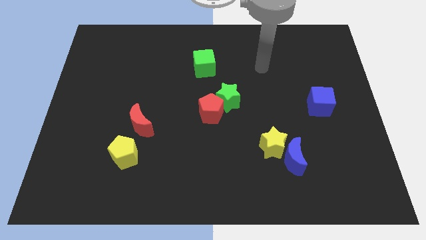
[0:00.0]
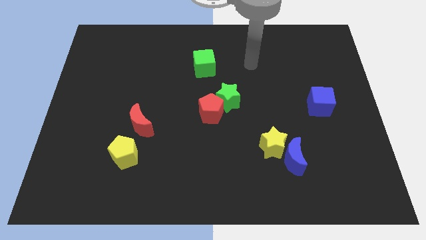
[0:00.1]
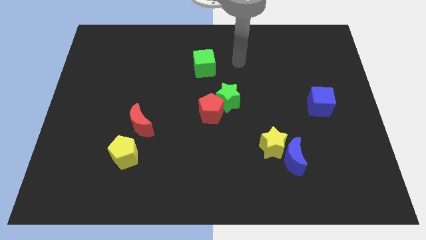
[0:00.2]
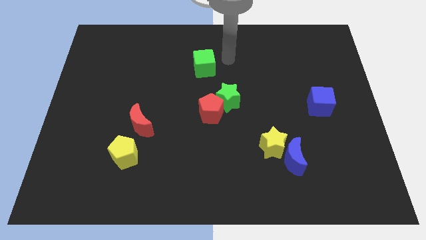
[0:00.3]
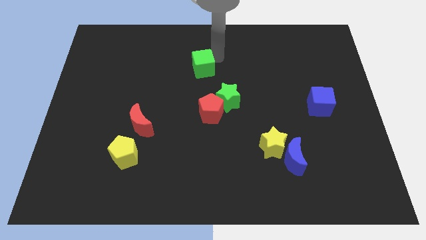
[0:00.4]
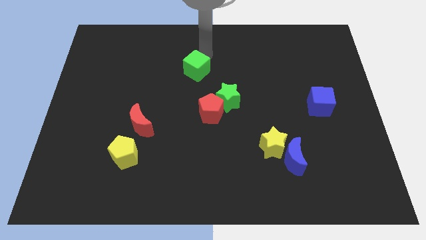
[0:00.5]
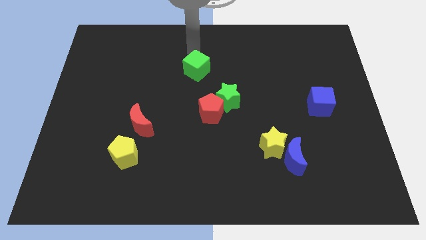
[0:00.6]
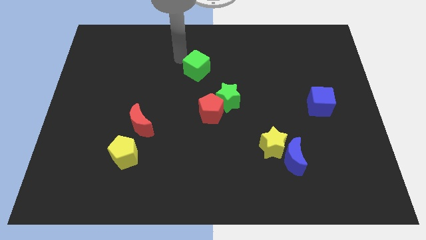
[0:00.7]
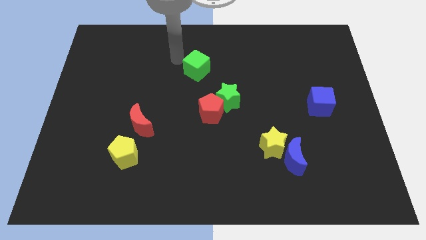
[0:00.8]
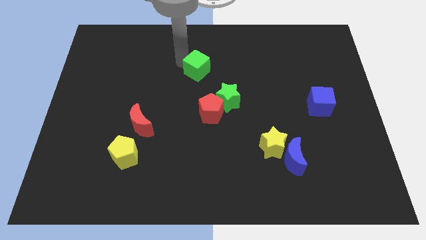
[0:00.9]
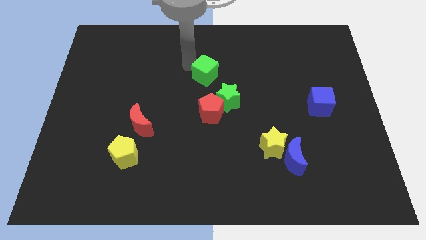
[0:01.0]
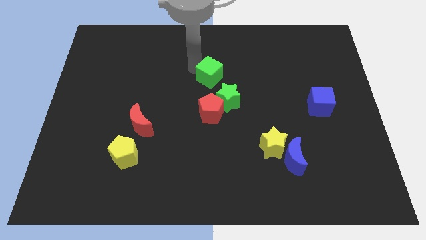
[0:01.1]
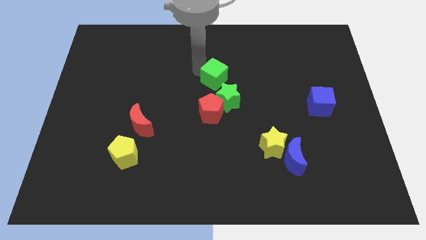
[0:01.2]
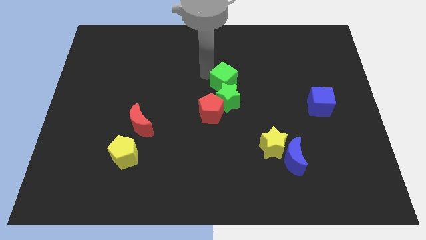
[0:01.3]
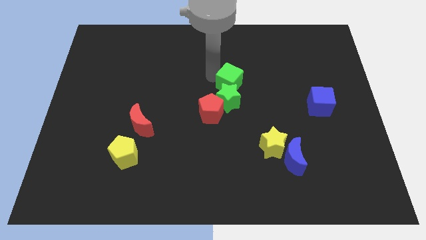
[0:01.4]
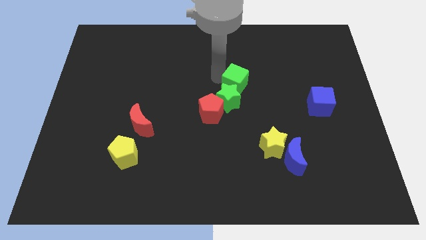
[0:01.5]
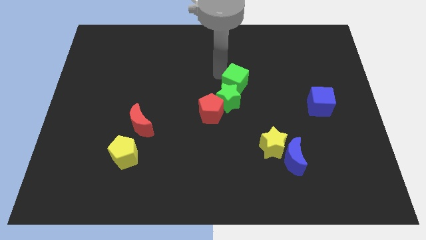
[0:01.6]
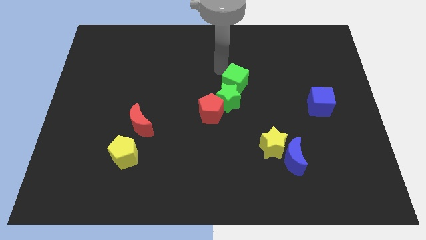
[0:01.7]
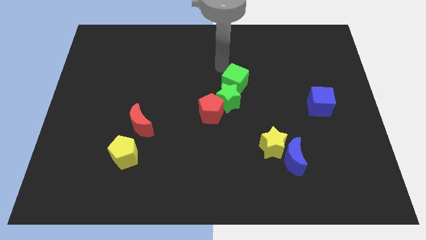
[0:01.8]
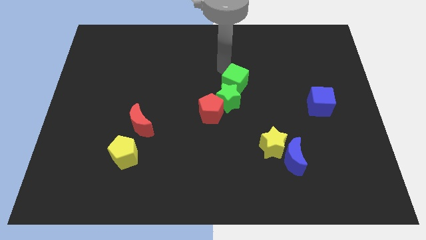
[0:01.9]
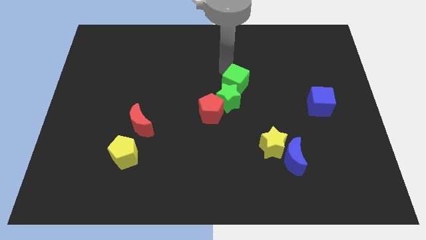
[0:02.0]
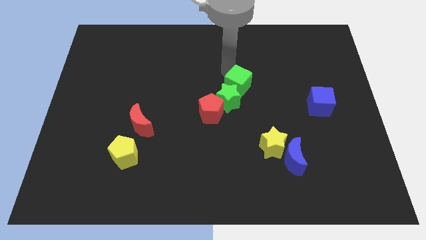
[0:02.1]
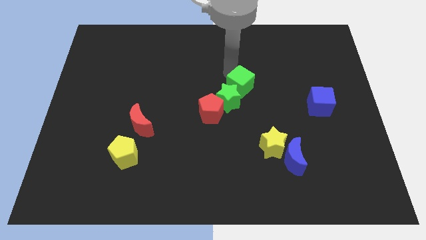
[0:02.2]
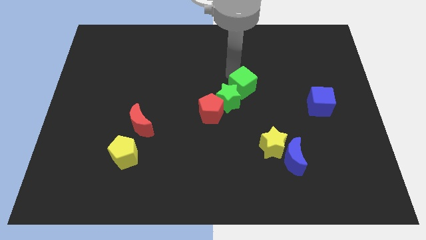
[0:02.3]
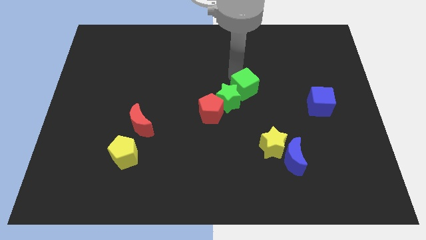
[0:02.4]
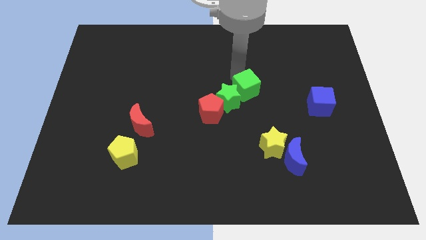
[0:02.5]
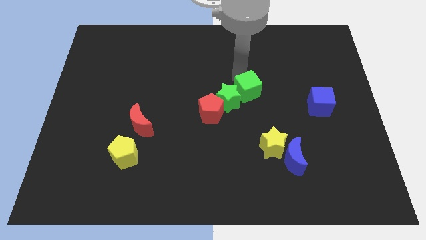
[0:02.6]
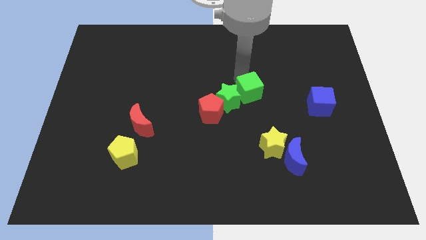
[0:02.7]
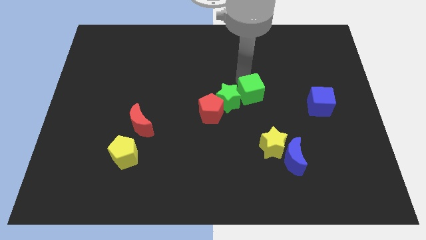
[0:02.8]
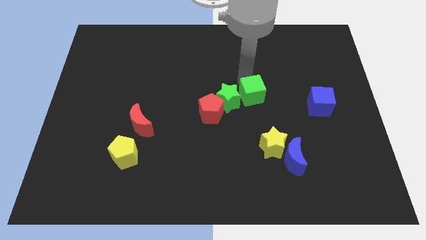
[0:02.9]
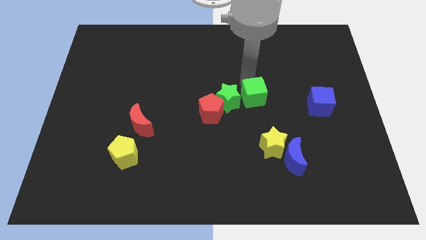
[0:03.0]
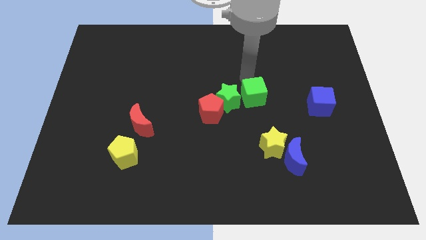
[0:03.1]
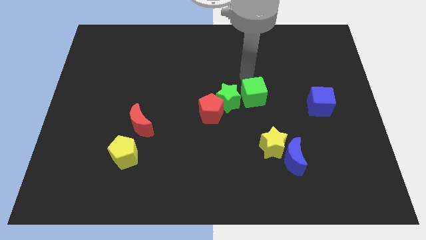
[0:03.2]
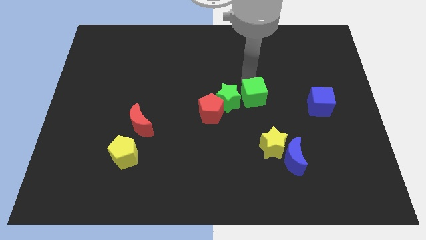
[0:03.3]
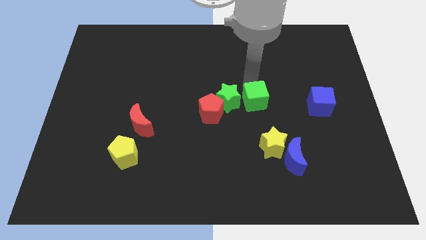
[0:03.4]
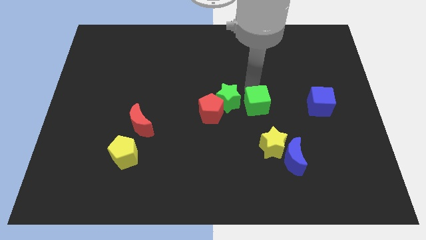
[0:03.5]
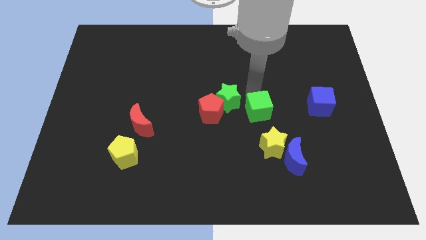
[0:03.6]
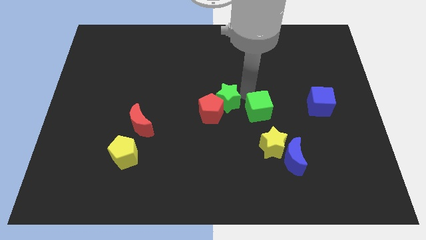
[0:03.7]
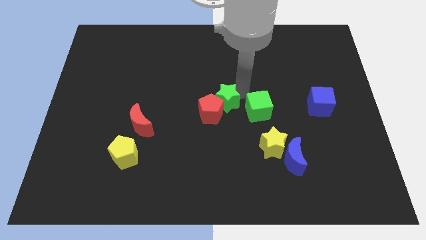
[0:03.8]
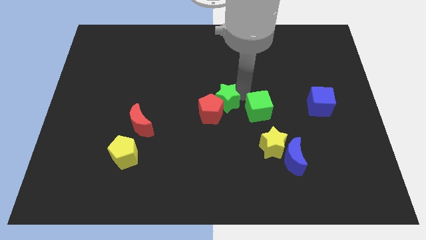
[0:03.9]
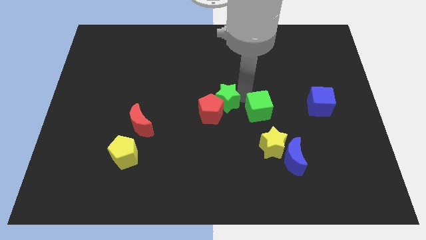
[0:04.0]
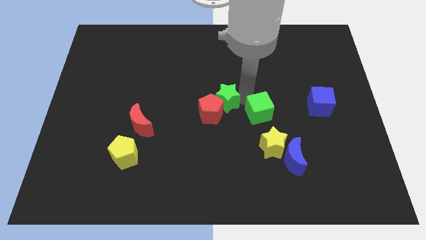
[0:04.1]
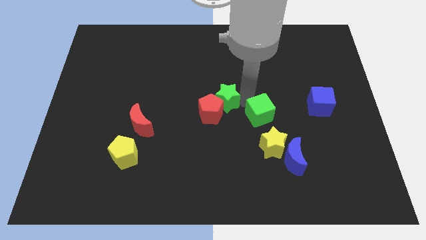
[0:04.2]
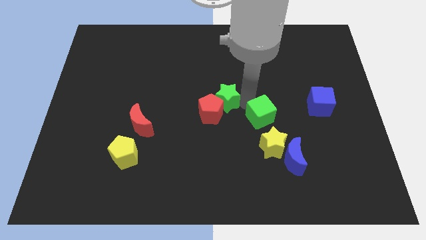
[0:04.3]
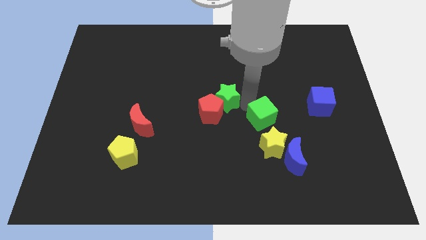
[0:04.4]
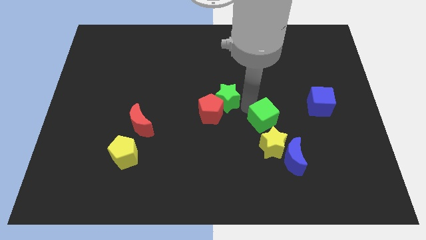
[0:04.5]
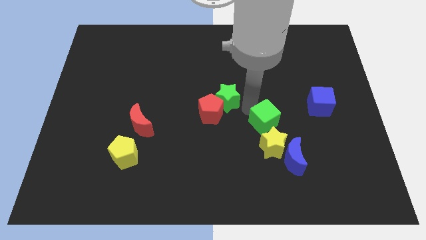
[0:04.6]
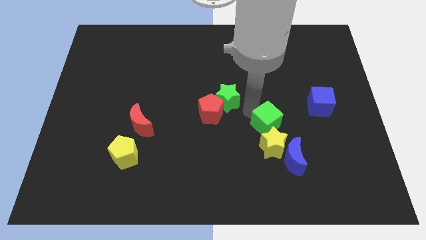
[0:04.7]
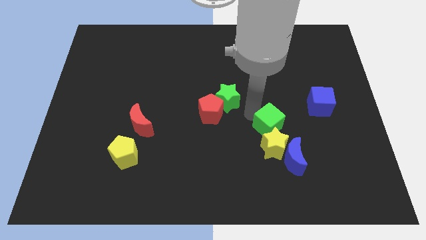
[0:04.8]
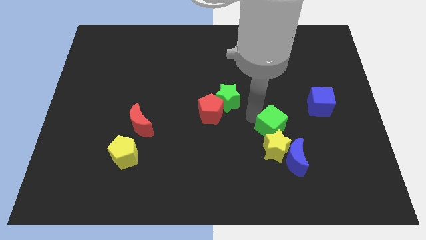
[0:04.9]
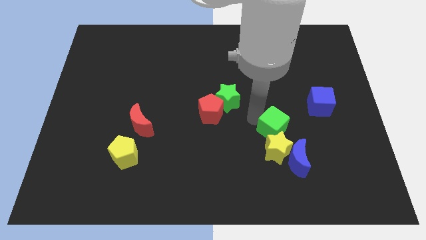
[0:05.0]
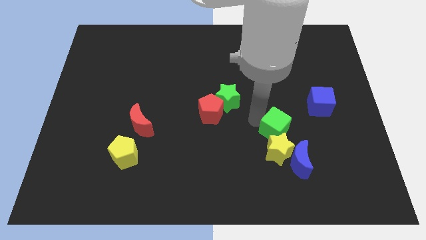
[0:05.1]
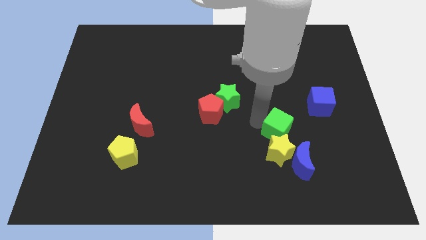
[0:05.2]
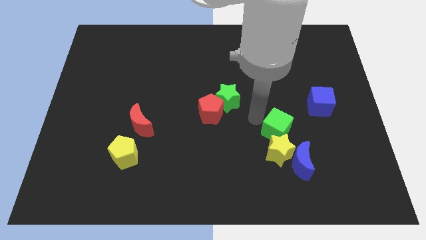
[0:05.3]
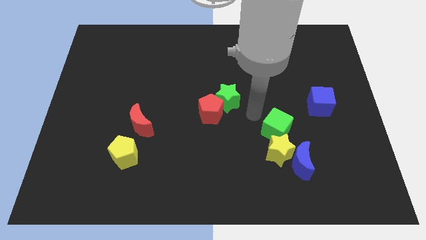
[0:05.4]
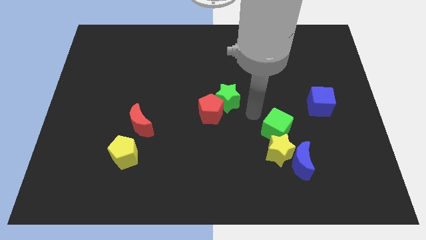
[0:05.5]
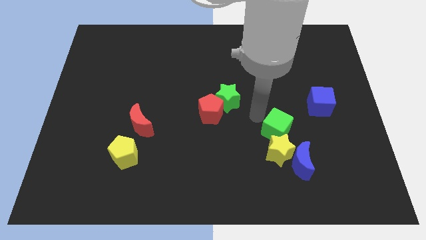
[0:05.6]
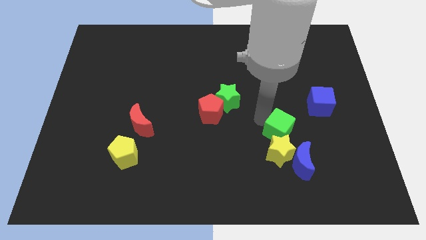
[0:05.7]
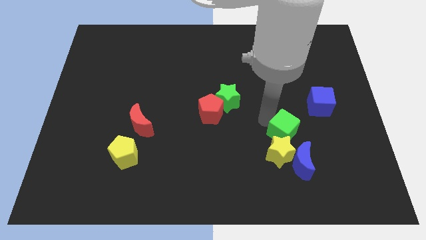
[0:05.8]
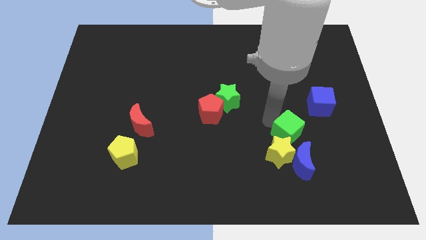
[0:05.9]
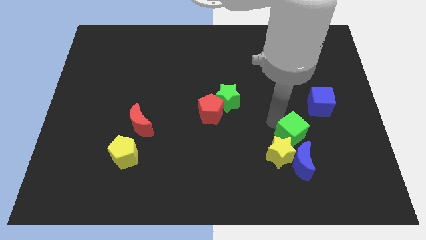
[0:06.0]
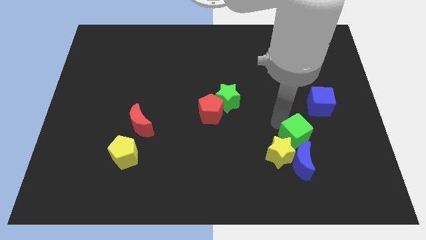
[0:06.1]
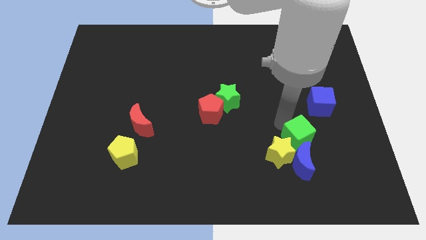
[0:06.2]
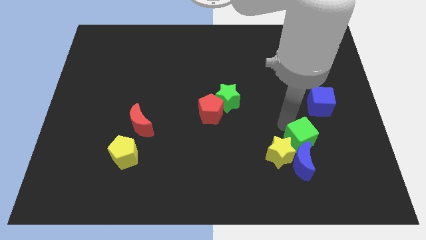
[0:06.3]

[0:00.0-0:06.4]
move the green cube towards the blue moon
